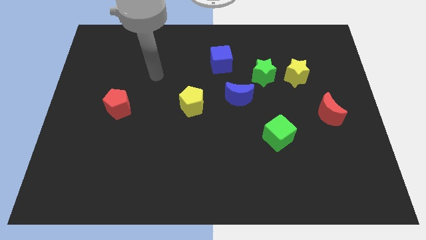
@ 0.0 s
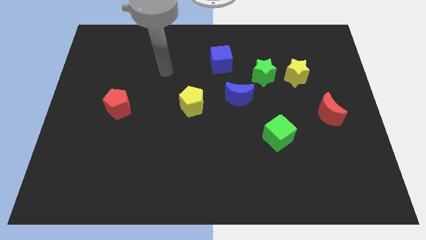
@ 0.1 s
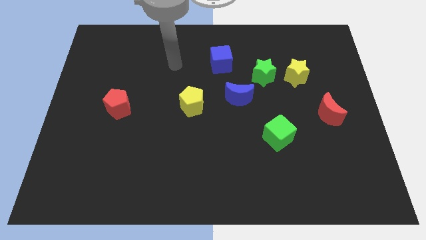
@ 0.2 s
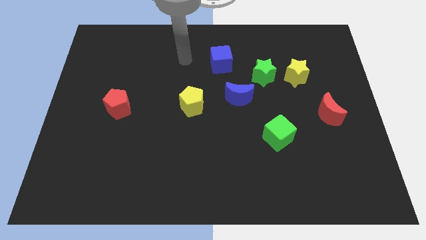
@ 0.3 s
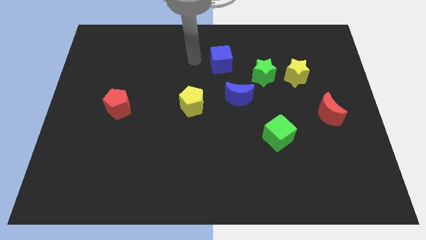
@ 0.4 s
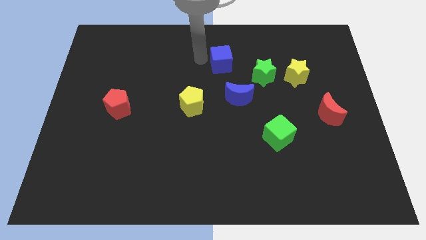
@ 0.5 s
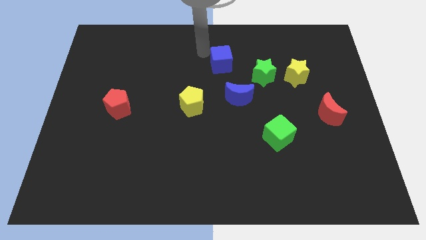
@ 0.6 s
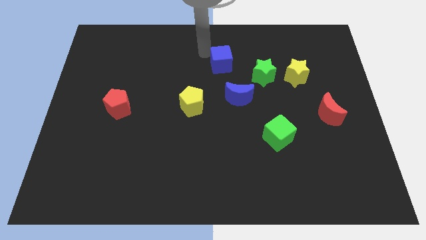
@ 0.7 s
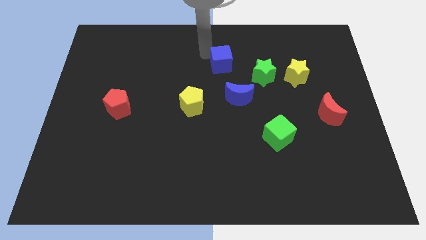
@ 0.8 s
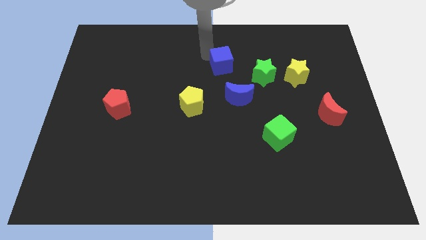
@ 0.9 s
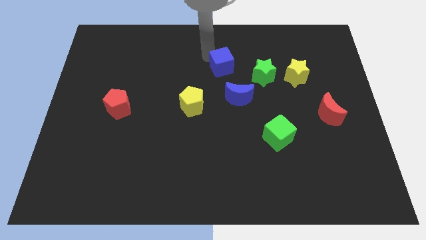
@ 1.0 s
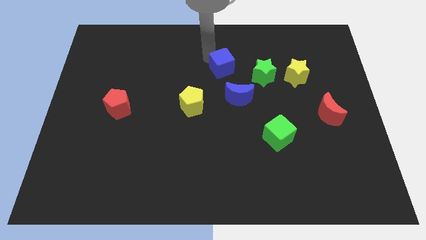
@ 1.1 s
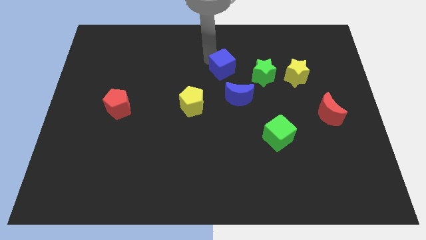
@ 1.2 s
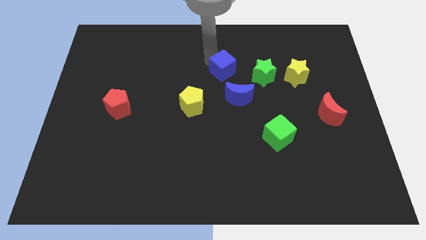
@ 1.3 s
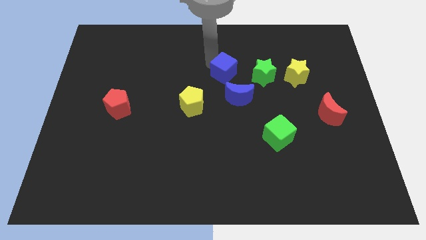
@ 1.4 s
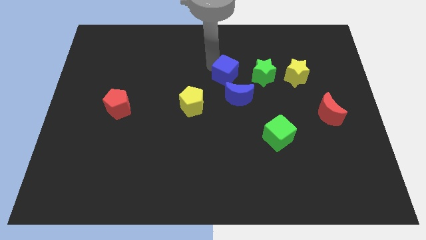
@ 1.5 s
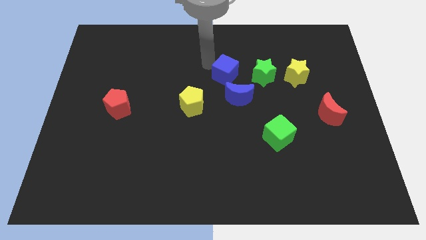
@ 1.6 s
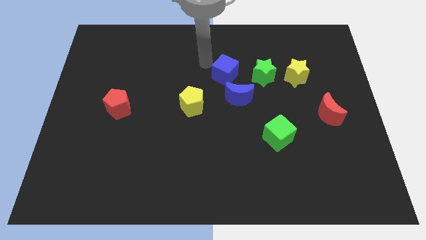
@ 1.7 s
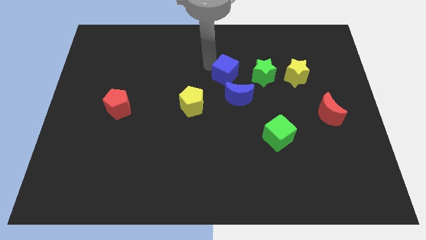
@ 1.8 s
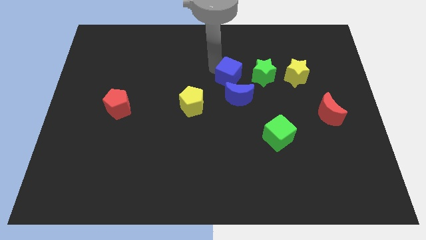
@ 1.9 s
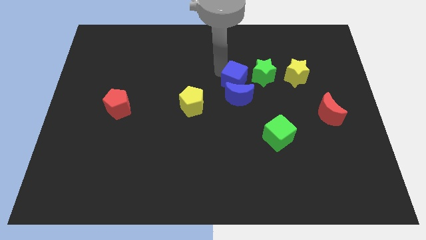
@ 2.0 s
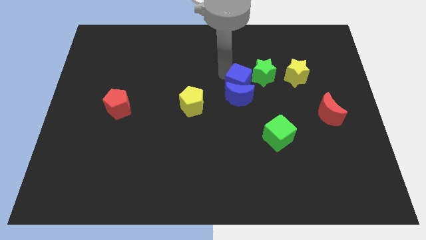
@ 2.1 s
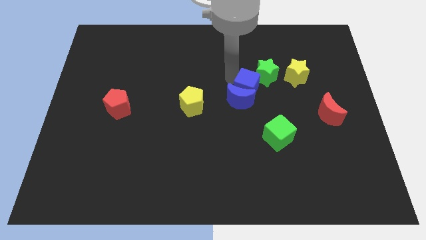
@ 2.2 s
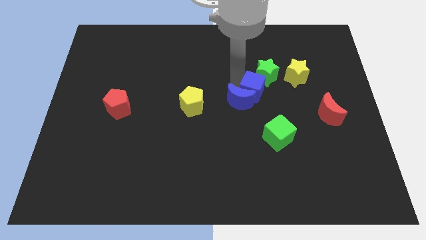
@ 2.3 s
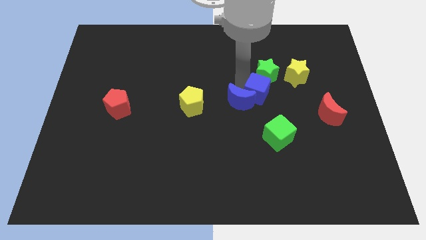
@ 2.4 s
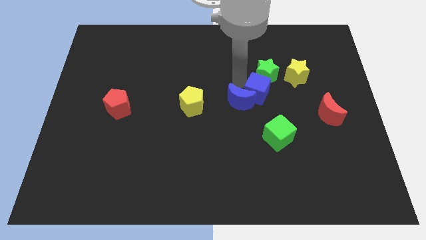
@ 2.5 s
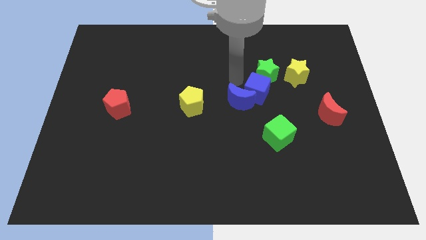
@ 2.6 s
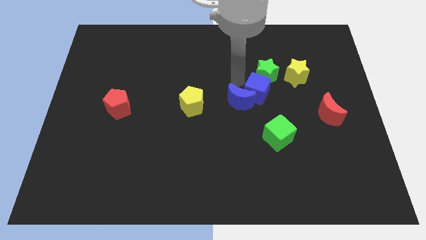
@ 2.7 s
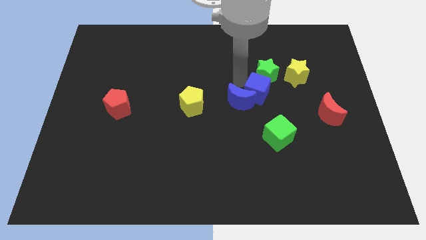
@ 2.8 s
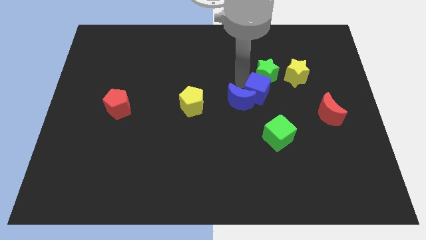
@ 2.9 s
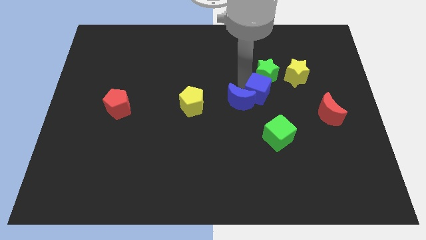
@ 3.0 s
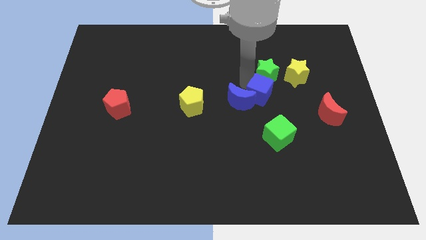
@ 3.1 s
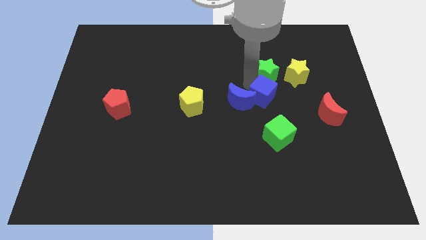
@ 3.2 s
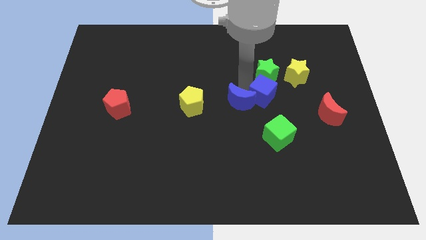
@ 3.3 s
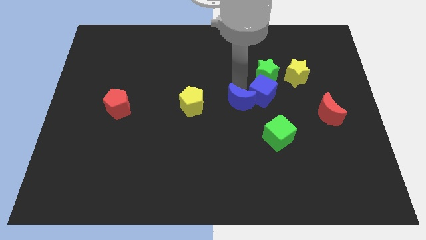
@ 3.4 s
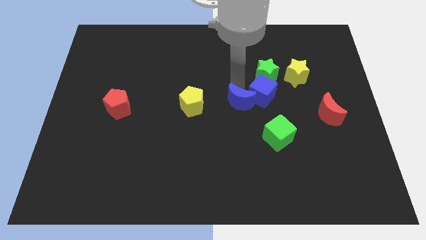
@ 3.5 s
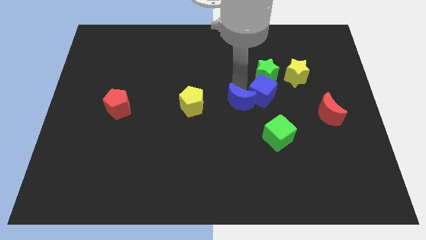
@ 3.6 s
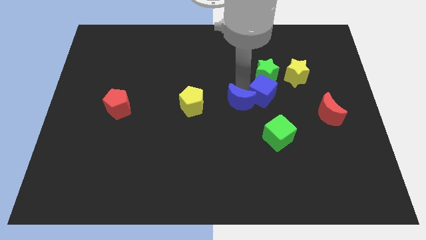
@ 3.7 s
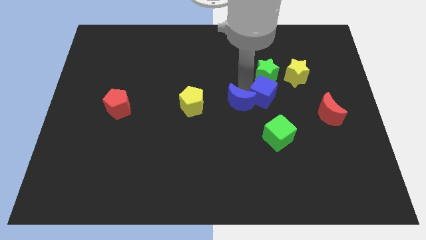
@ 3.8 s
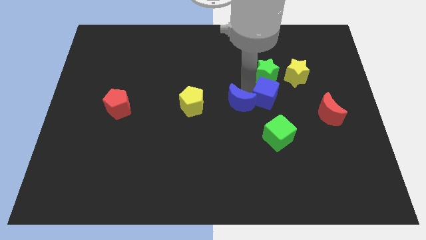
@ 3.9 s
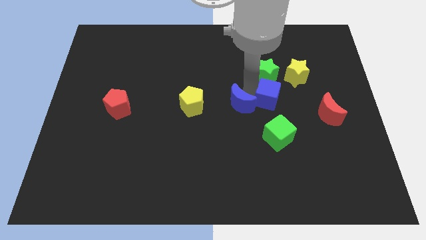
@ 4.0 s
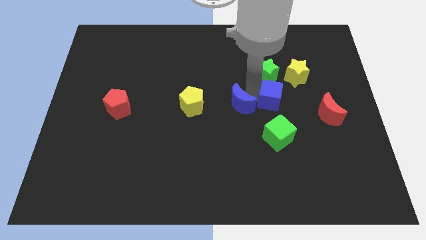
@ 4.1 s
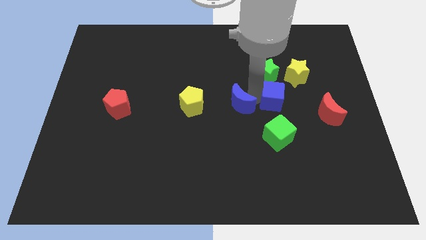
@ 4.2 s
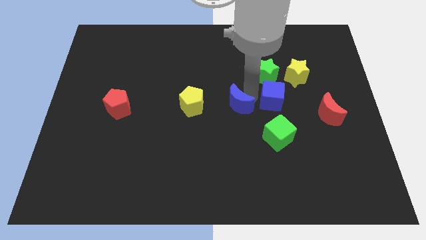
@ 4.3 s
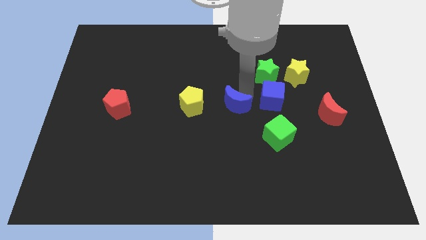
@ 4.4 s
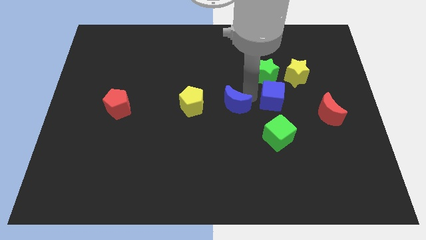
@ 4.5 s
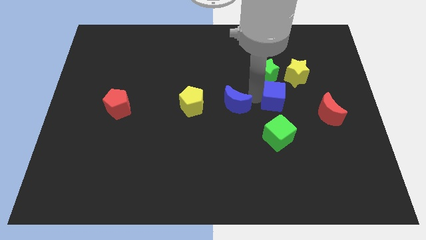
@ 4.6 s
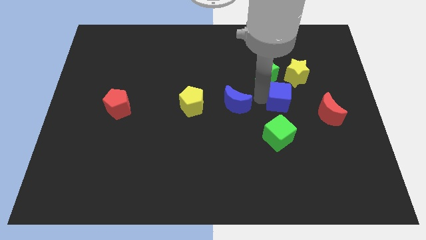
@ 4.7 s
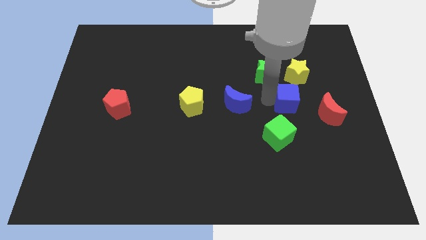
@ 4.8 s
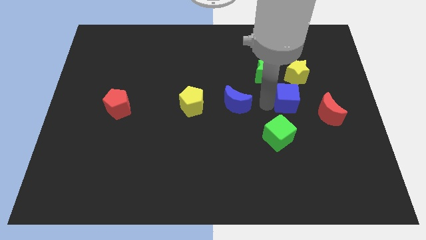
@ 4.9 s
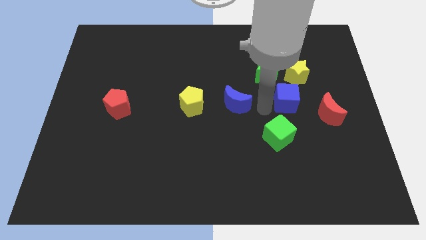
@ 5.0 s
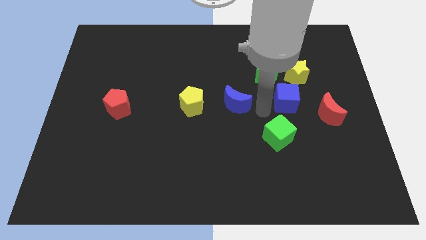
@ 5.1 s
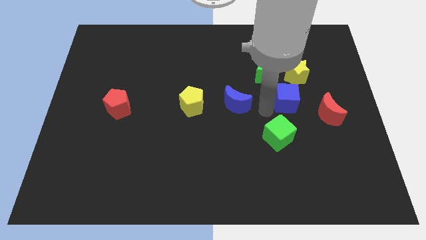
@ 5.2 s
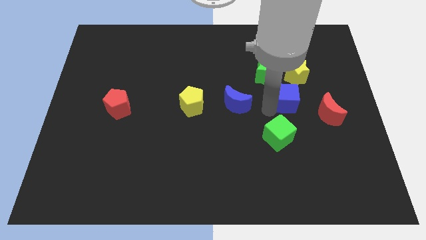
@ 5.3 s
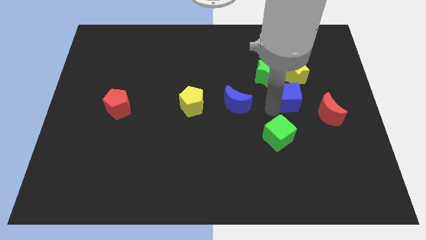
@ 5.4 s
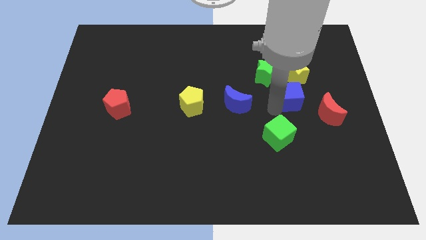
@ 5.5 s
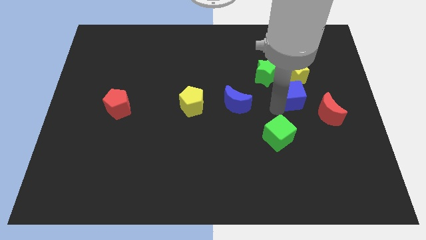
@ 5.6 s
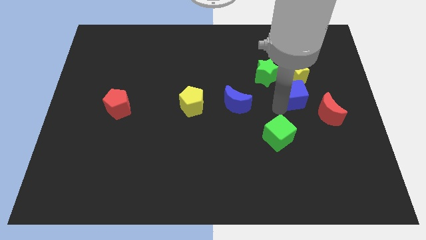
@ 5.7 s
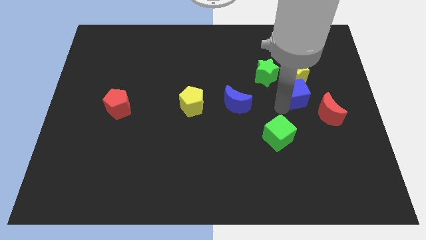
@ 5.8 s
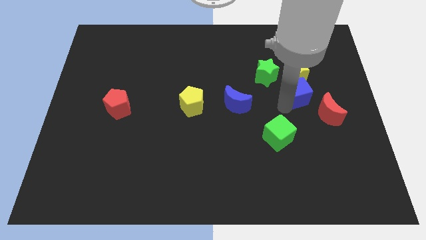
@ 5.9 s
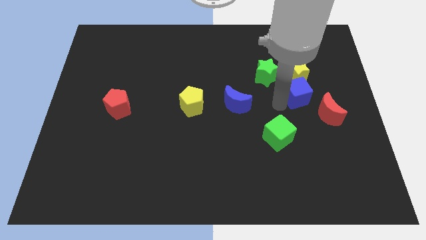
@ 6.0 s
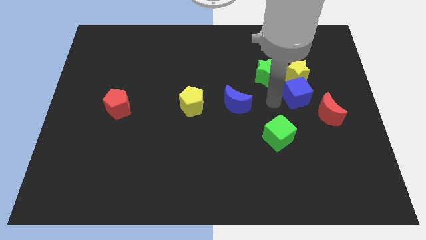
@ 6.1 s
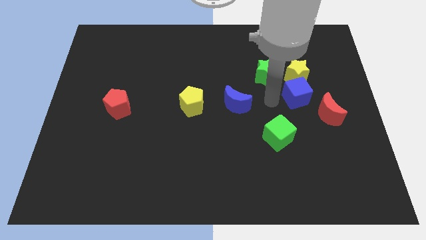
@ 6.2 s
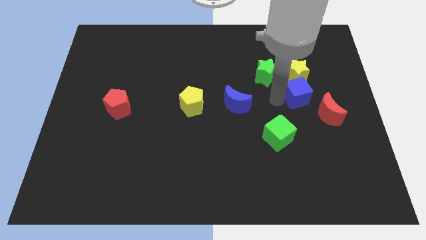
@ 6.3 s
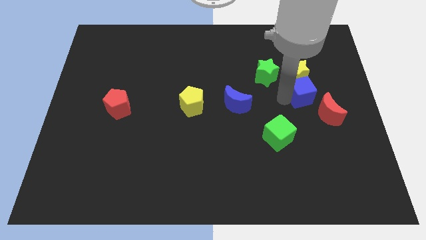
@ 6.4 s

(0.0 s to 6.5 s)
move the blue cube diagonally down and to the right of the yellow star

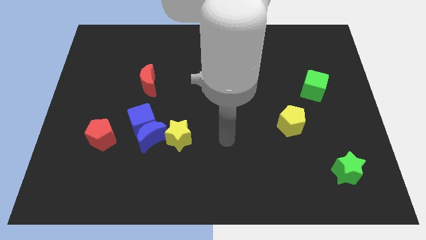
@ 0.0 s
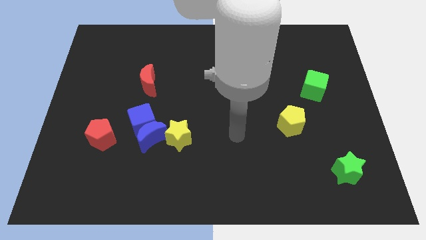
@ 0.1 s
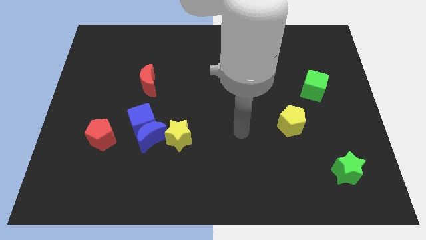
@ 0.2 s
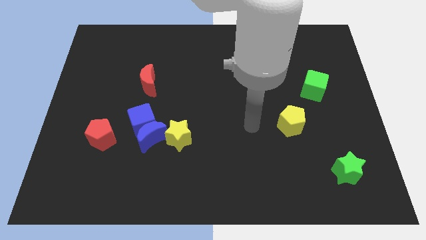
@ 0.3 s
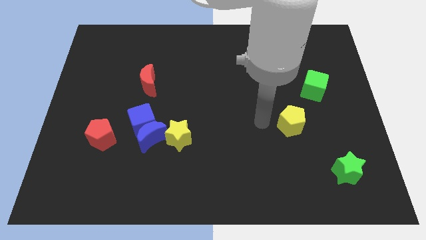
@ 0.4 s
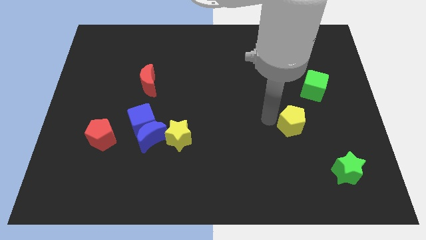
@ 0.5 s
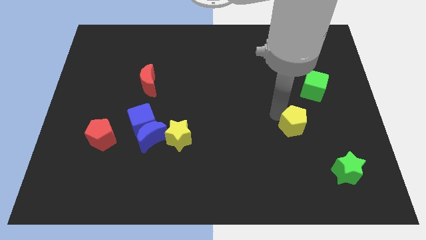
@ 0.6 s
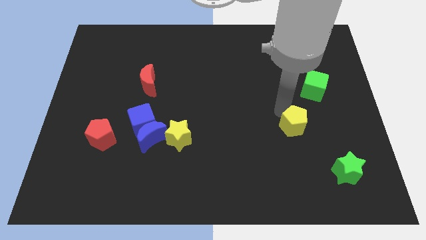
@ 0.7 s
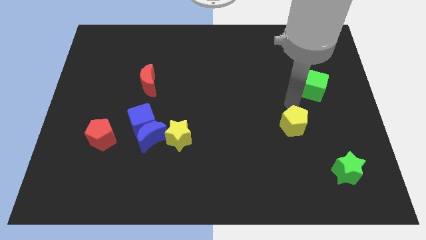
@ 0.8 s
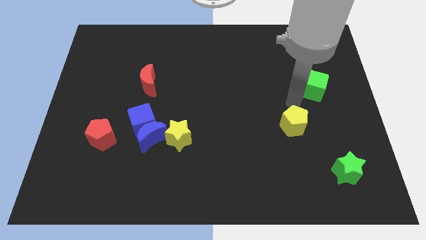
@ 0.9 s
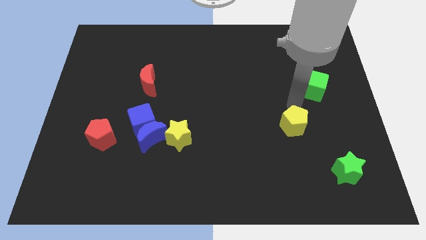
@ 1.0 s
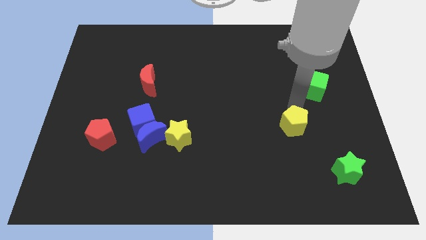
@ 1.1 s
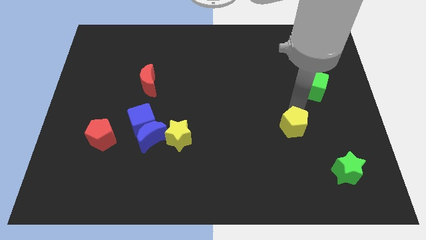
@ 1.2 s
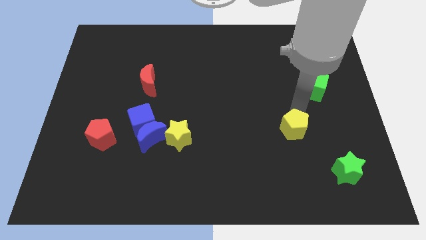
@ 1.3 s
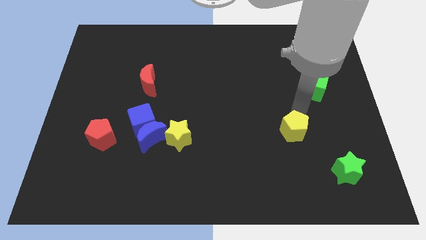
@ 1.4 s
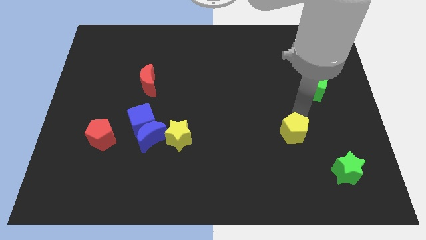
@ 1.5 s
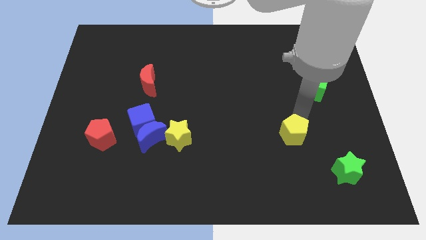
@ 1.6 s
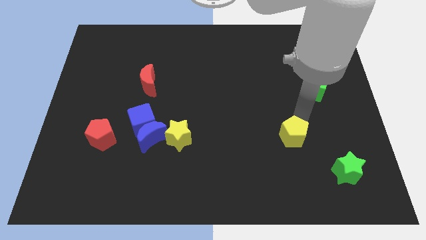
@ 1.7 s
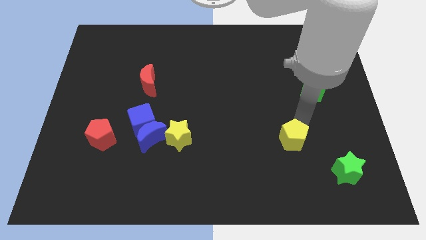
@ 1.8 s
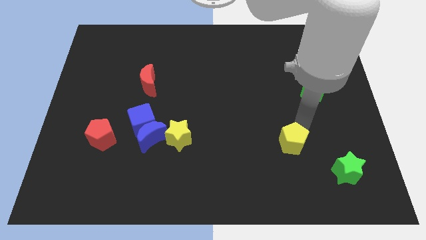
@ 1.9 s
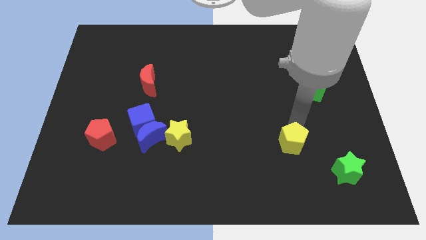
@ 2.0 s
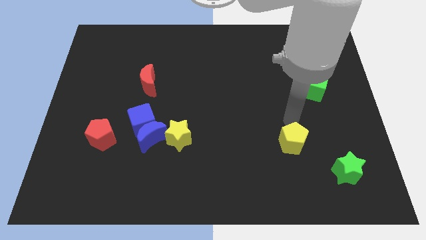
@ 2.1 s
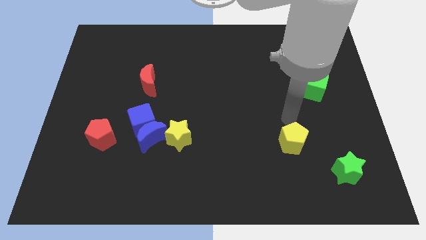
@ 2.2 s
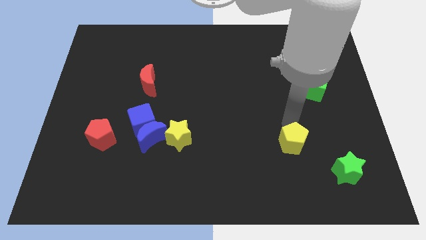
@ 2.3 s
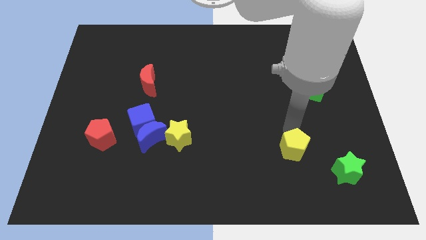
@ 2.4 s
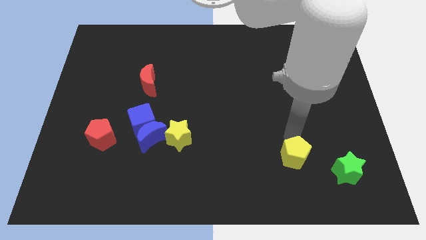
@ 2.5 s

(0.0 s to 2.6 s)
move the yellow pentagon to the left of the green star
